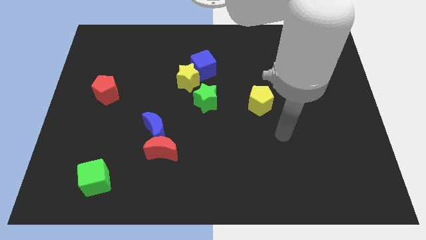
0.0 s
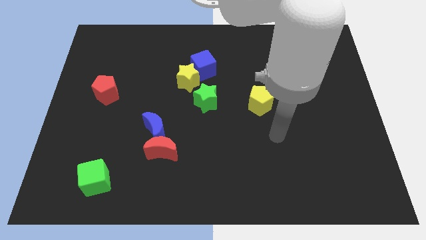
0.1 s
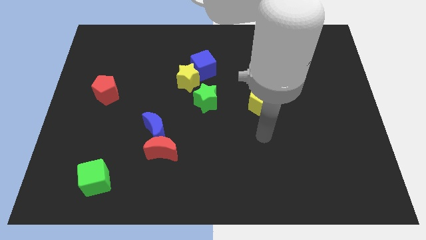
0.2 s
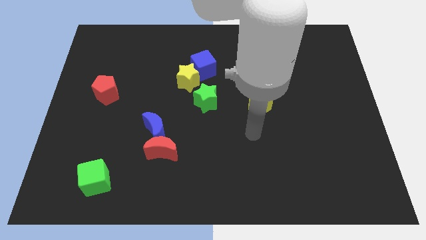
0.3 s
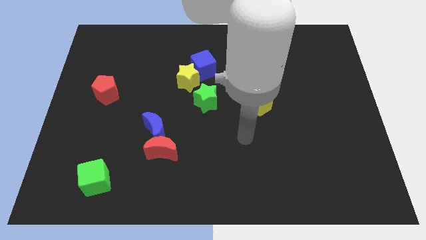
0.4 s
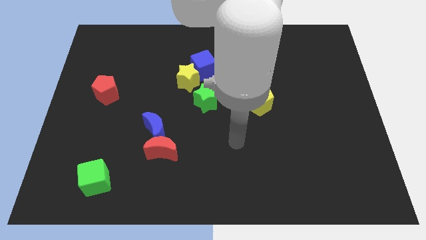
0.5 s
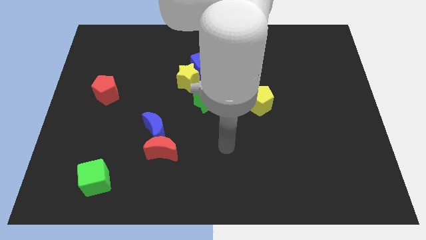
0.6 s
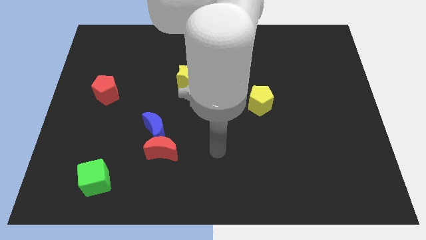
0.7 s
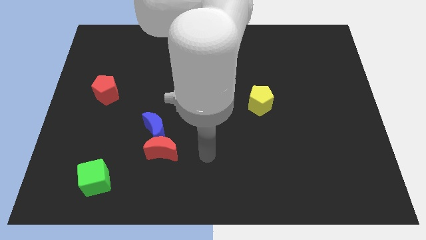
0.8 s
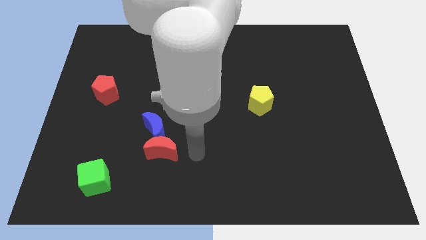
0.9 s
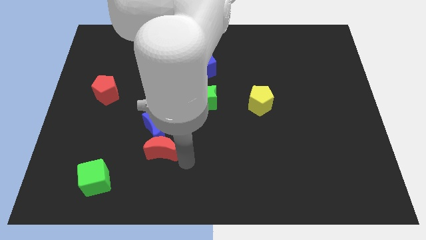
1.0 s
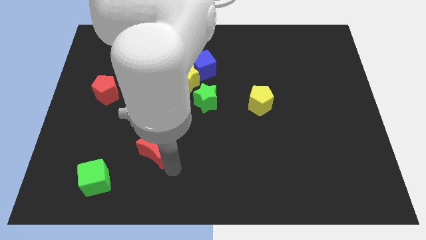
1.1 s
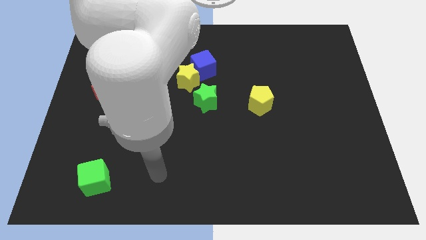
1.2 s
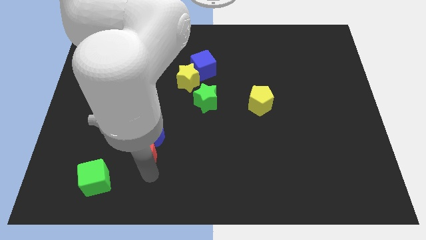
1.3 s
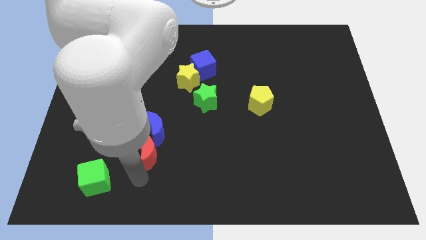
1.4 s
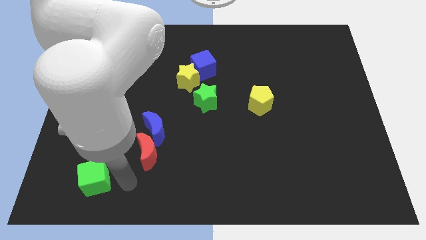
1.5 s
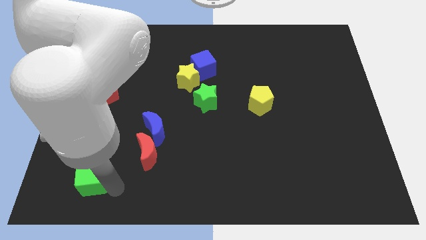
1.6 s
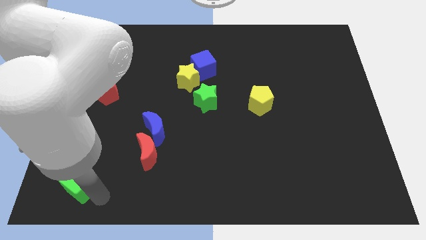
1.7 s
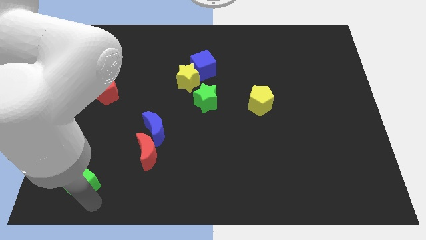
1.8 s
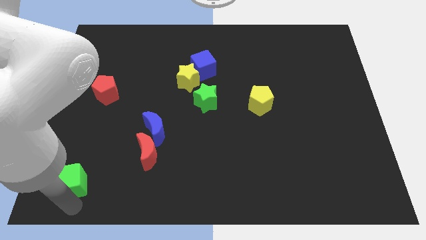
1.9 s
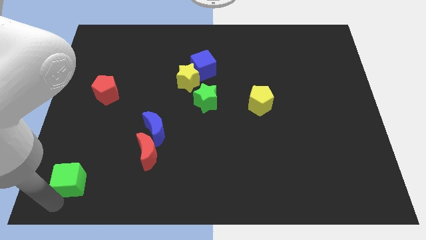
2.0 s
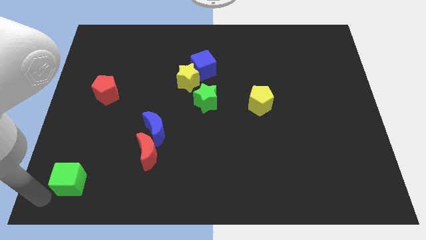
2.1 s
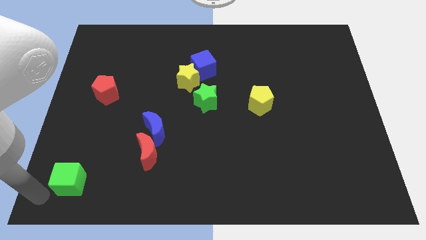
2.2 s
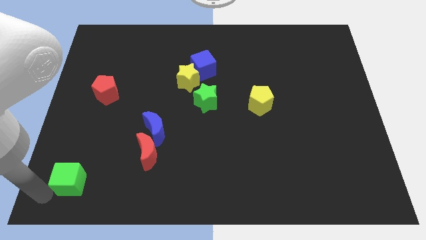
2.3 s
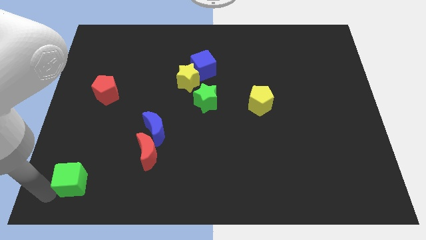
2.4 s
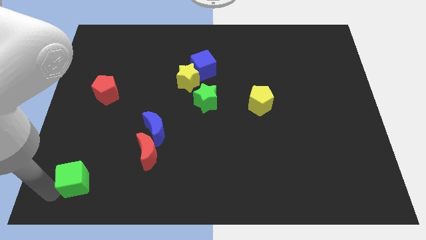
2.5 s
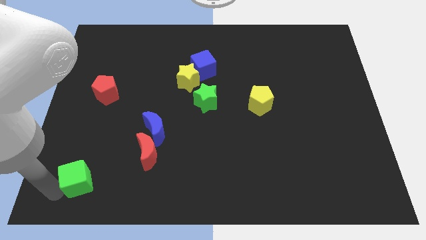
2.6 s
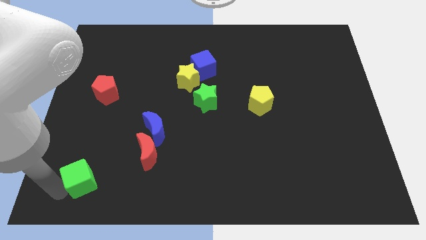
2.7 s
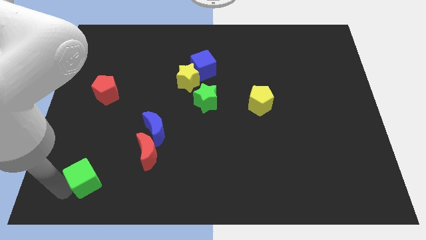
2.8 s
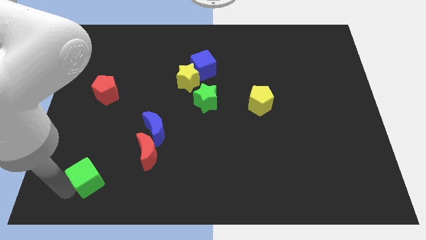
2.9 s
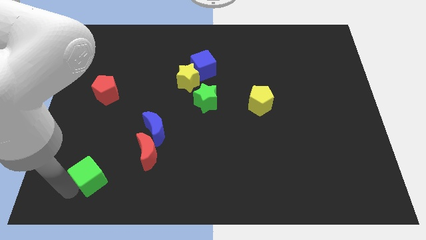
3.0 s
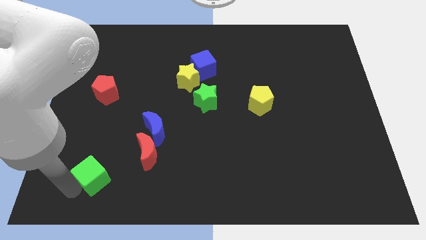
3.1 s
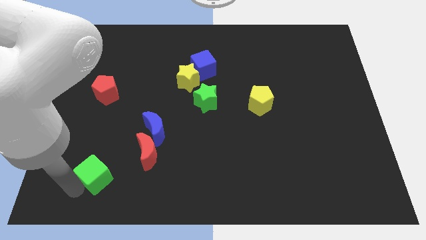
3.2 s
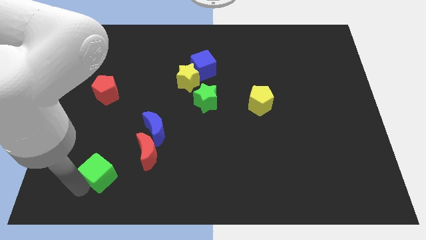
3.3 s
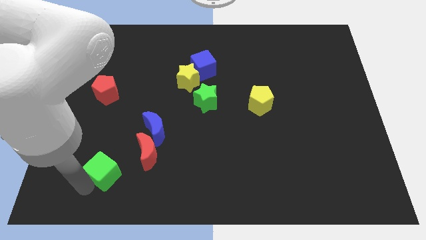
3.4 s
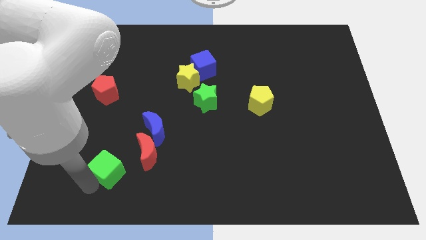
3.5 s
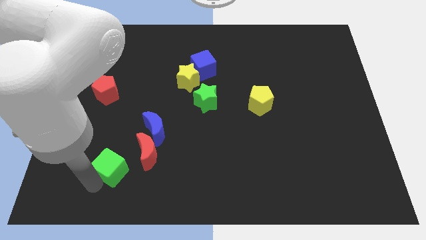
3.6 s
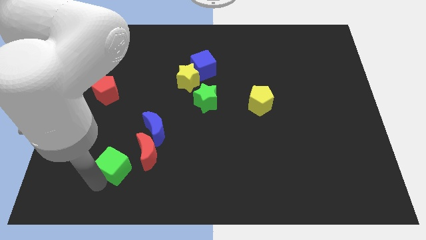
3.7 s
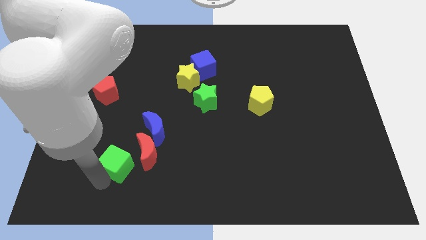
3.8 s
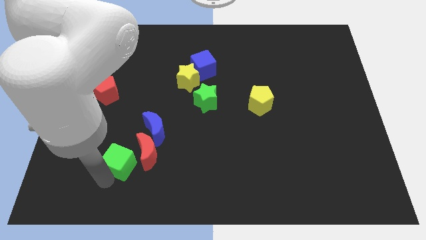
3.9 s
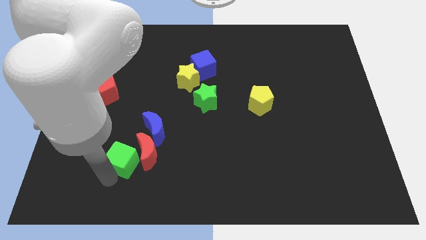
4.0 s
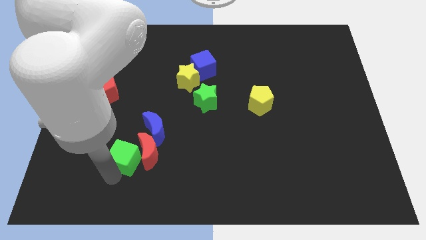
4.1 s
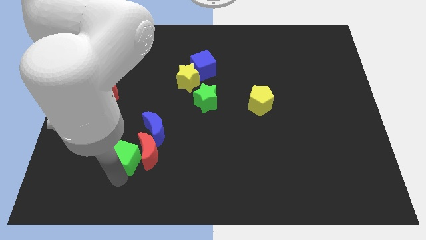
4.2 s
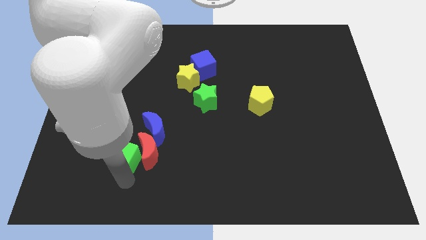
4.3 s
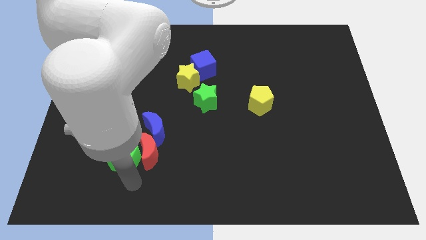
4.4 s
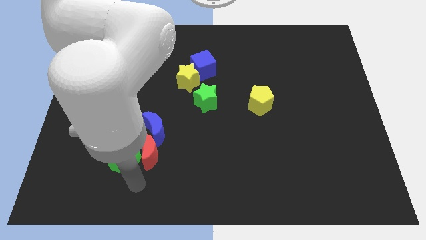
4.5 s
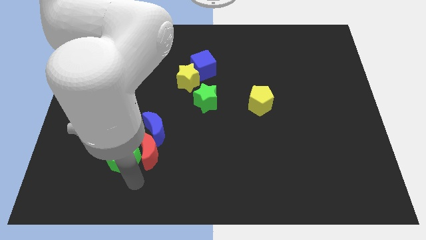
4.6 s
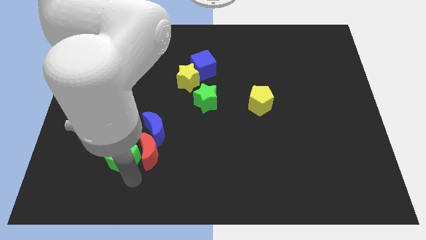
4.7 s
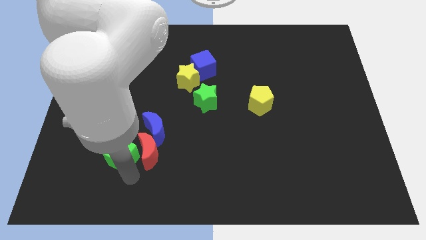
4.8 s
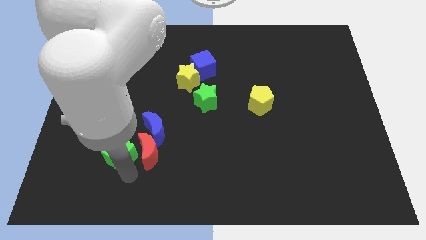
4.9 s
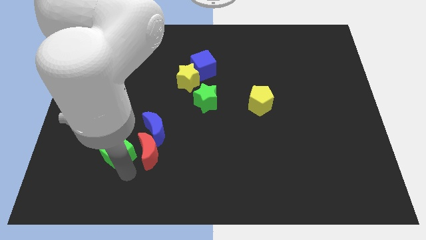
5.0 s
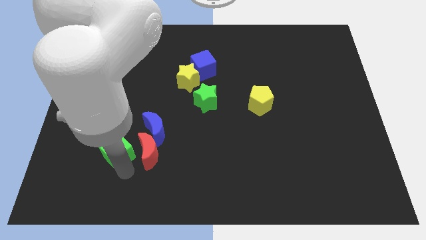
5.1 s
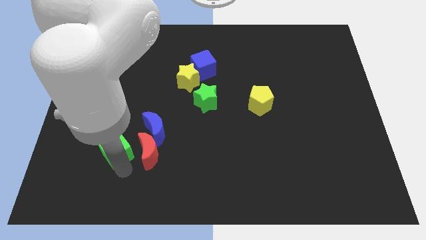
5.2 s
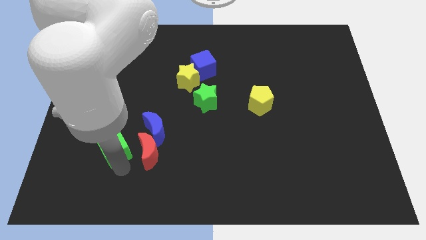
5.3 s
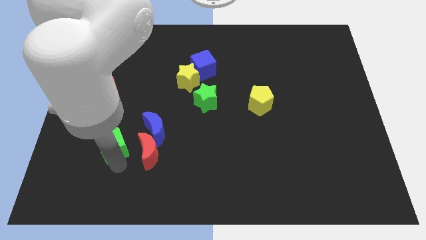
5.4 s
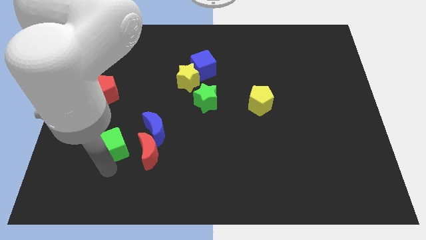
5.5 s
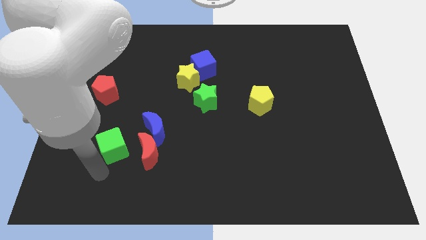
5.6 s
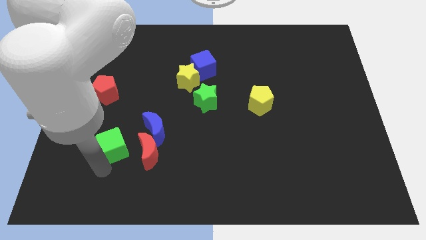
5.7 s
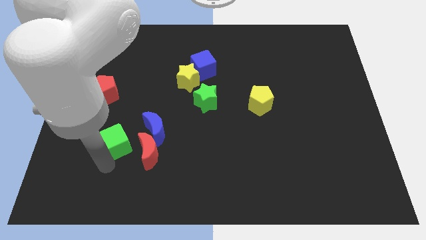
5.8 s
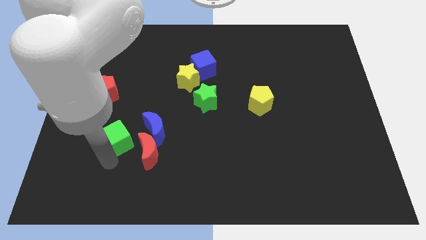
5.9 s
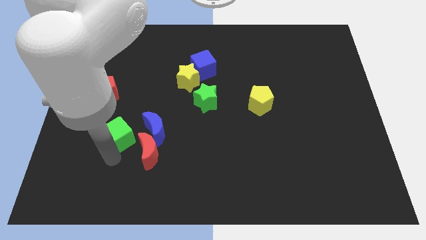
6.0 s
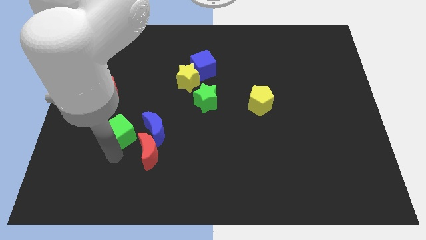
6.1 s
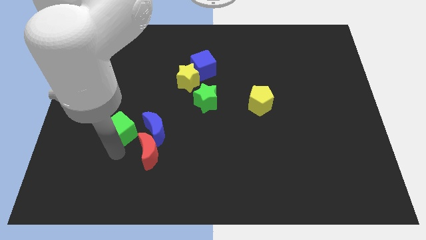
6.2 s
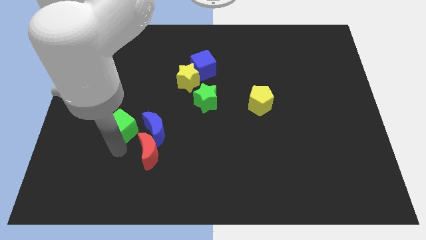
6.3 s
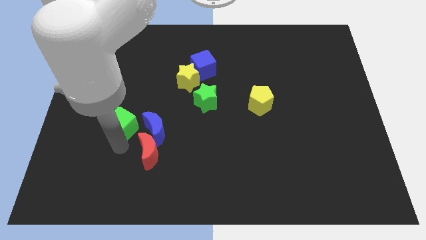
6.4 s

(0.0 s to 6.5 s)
move the green cube to the top left side of the blue moon

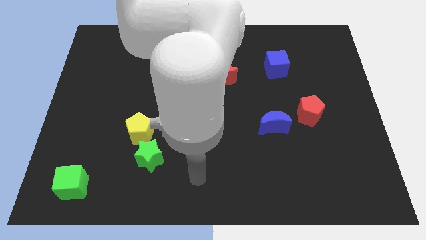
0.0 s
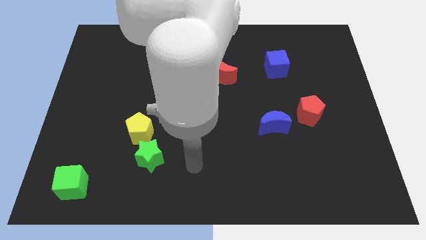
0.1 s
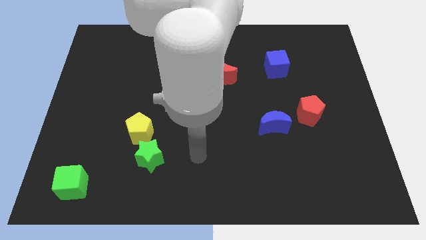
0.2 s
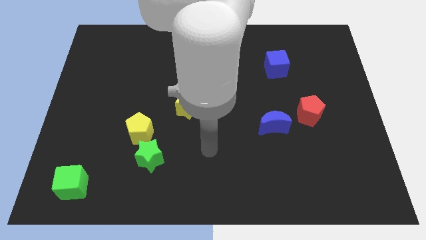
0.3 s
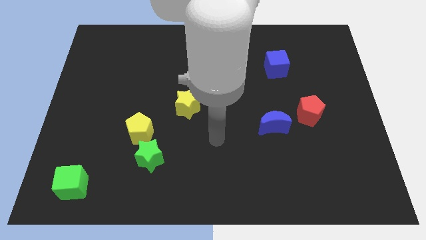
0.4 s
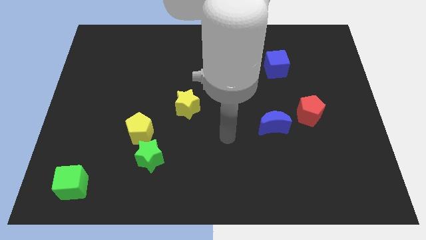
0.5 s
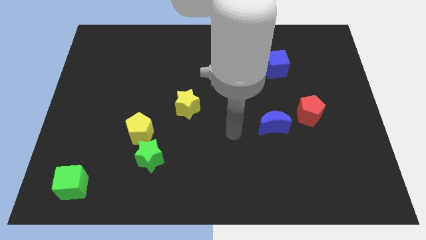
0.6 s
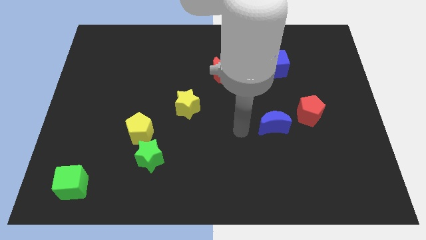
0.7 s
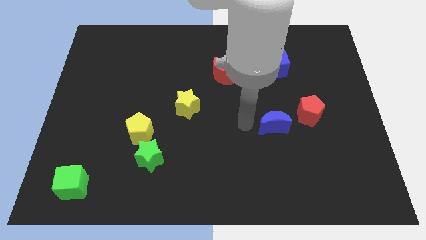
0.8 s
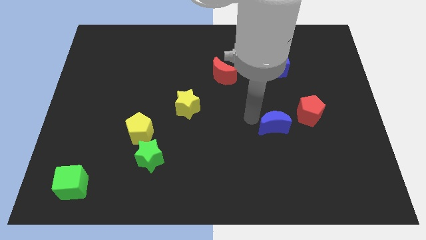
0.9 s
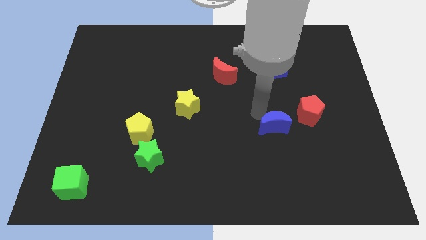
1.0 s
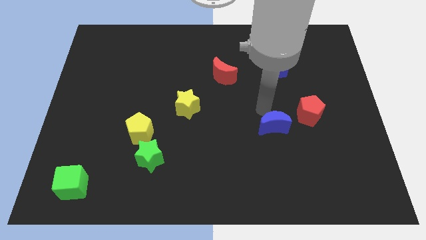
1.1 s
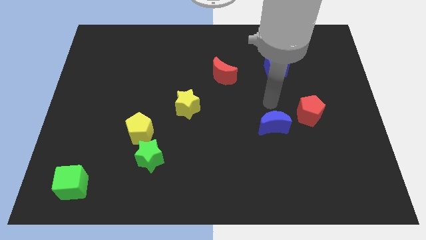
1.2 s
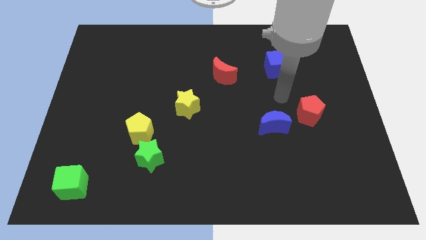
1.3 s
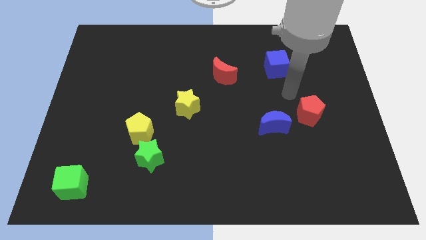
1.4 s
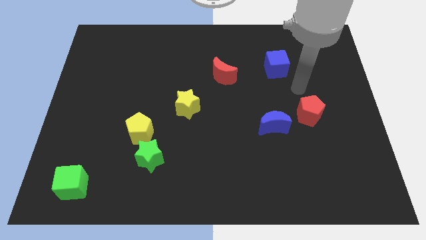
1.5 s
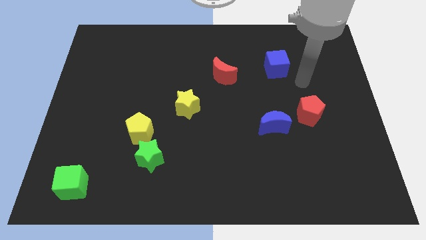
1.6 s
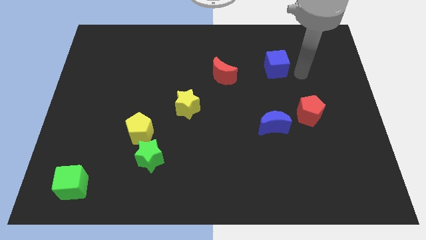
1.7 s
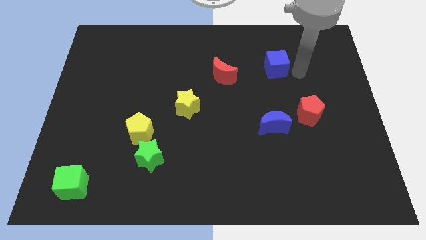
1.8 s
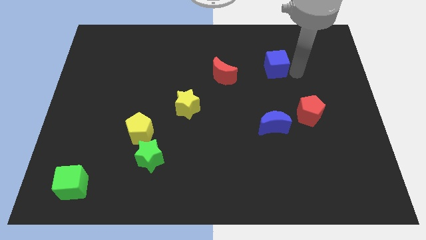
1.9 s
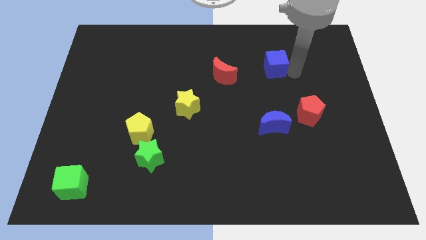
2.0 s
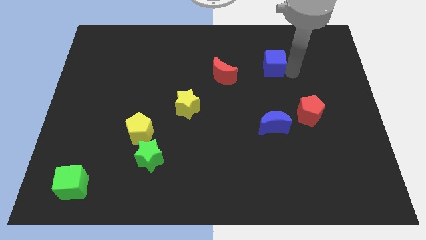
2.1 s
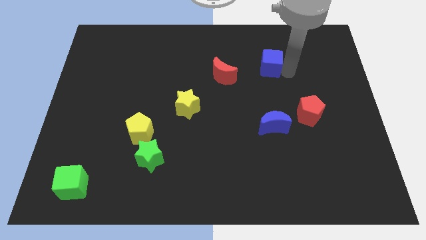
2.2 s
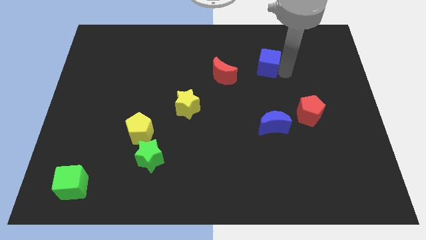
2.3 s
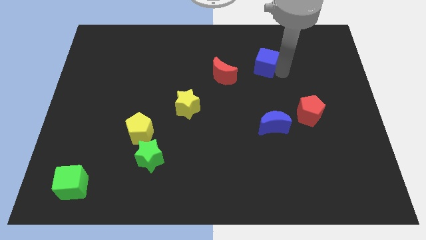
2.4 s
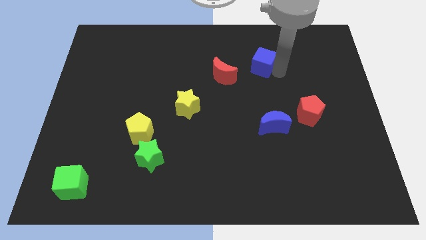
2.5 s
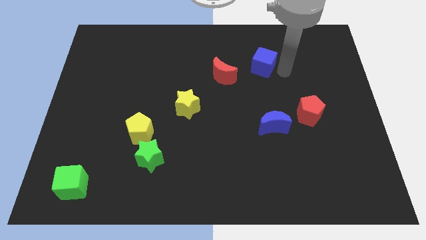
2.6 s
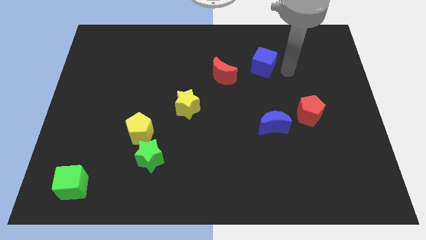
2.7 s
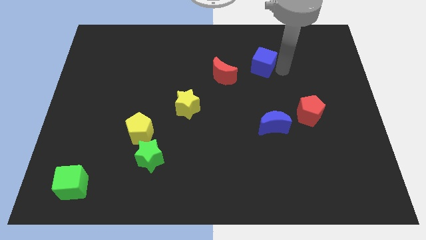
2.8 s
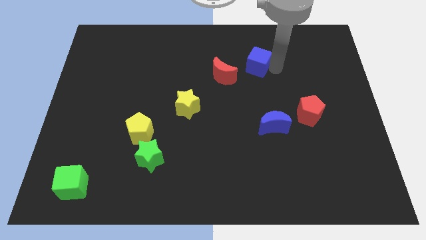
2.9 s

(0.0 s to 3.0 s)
move the blue cube to the top right of the red moon
